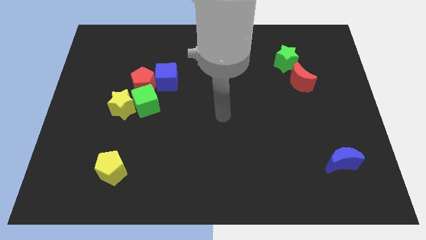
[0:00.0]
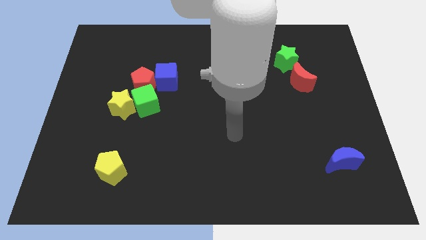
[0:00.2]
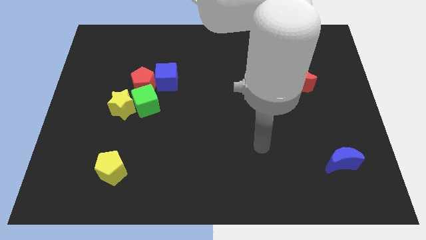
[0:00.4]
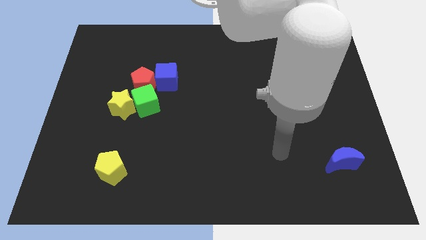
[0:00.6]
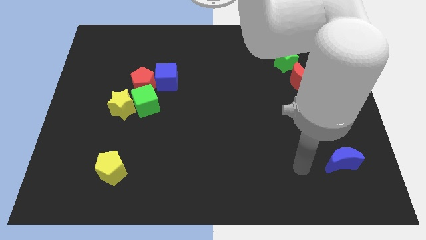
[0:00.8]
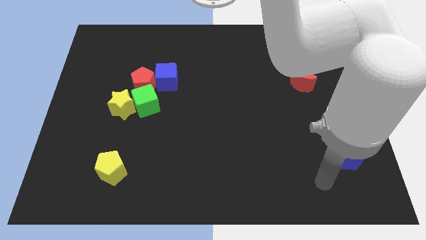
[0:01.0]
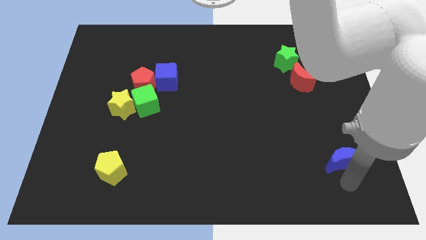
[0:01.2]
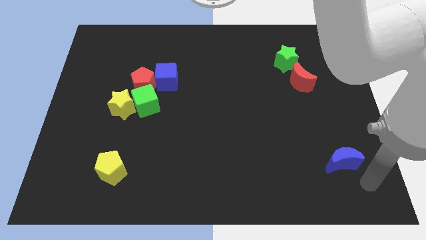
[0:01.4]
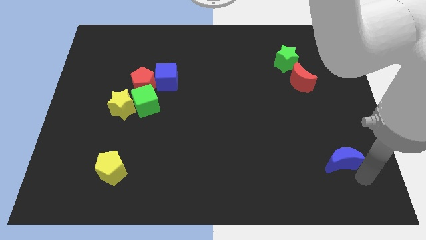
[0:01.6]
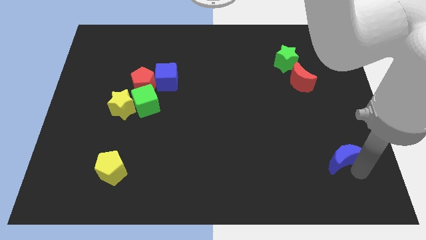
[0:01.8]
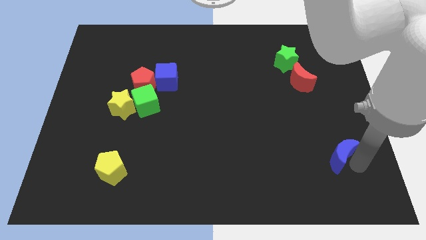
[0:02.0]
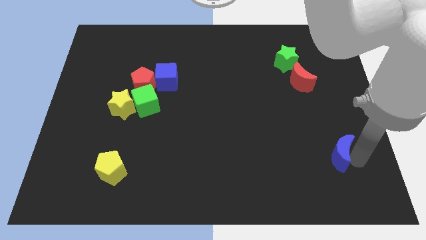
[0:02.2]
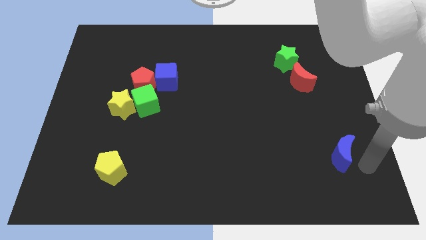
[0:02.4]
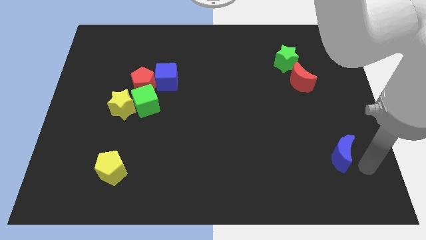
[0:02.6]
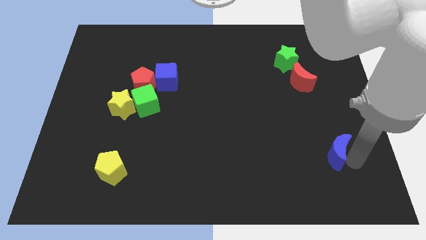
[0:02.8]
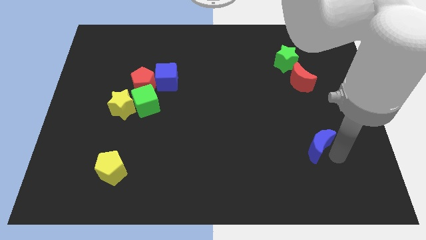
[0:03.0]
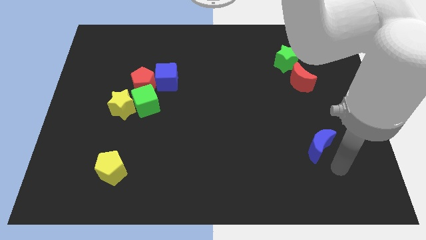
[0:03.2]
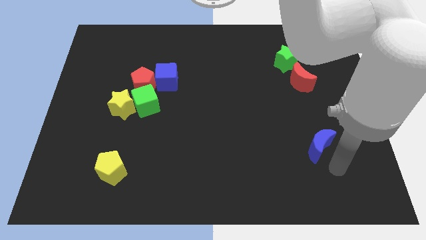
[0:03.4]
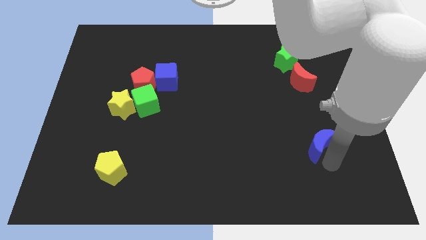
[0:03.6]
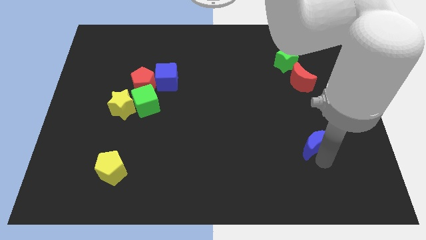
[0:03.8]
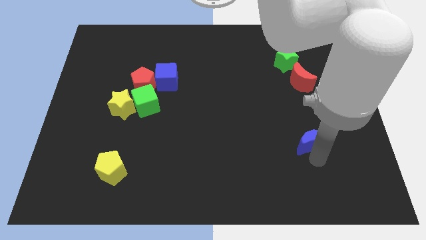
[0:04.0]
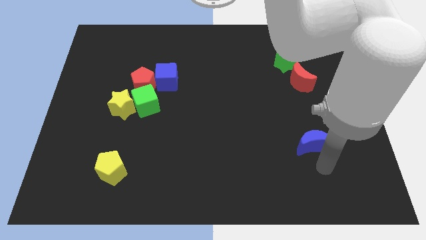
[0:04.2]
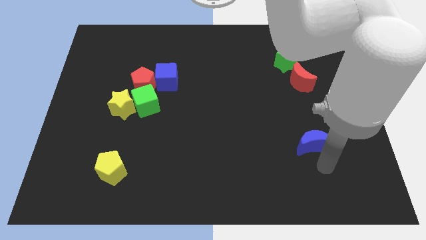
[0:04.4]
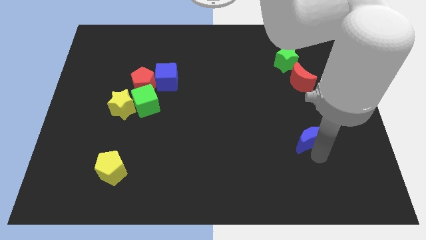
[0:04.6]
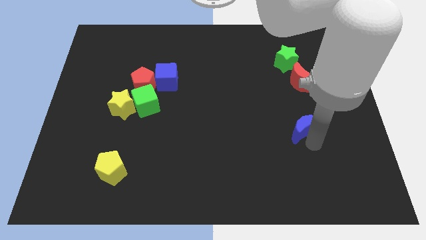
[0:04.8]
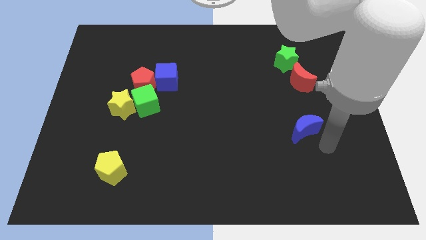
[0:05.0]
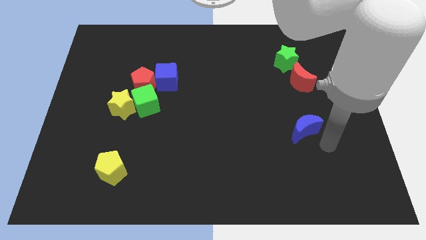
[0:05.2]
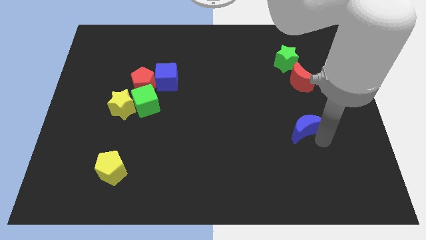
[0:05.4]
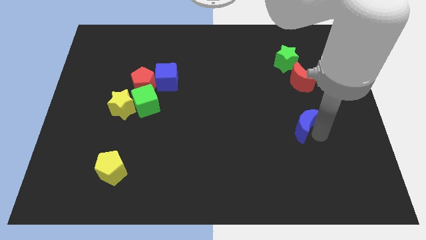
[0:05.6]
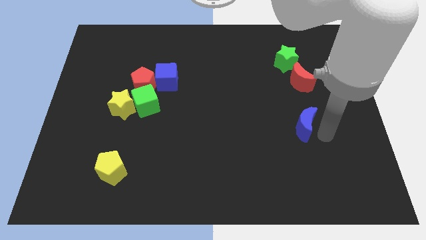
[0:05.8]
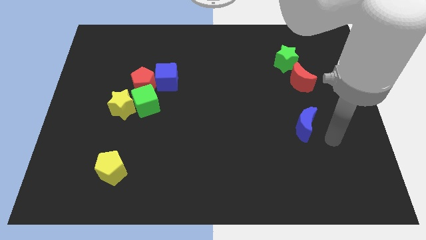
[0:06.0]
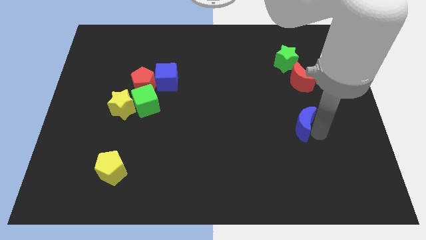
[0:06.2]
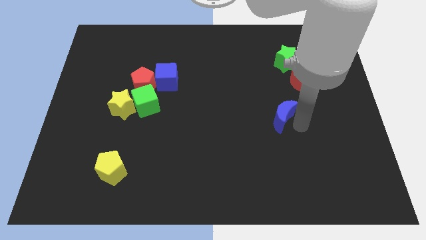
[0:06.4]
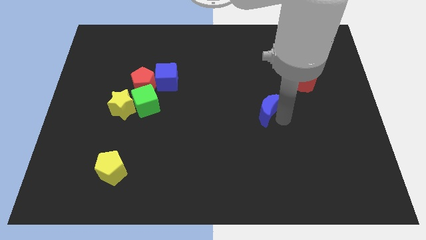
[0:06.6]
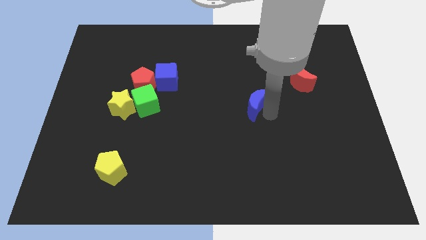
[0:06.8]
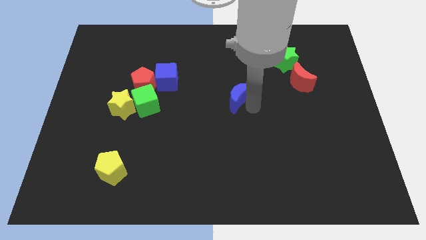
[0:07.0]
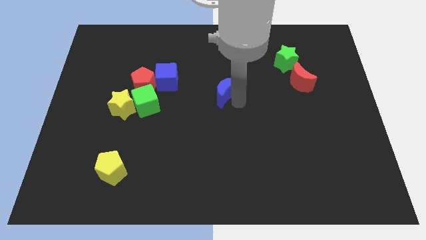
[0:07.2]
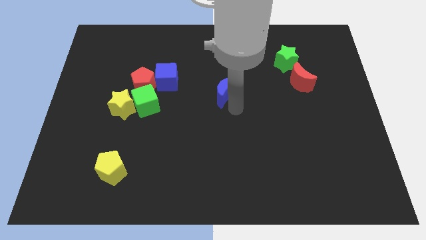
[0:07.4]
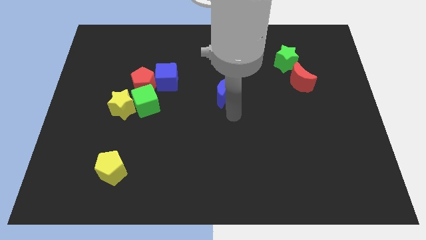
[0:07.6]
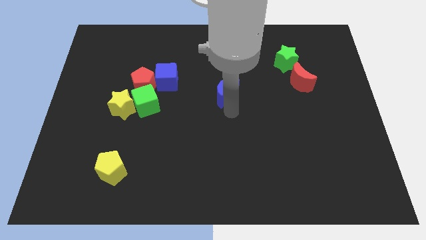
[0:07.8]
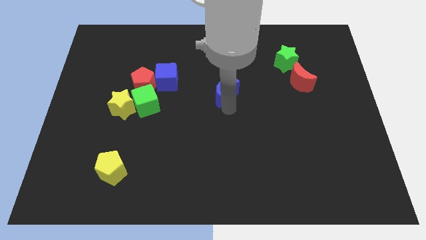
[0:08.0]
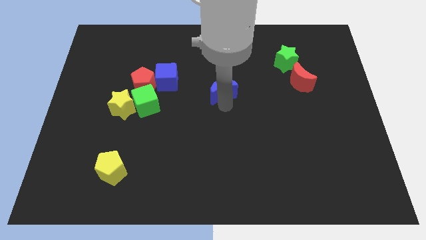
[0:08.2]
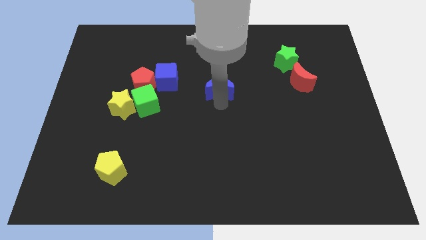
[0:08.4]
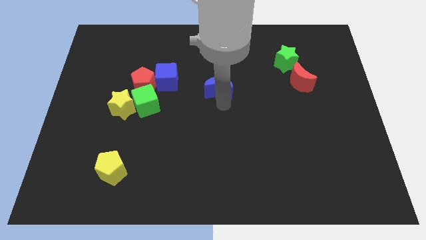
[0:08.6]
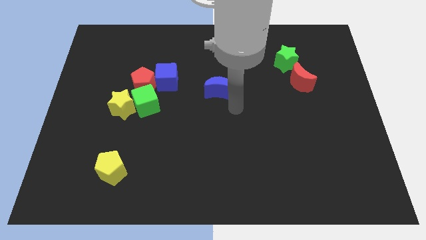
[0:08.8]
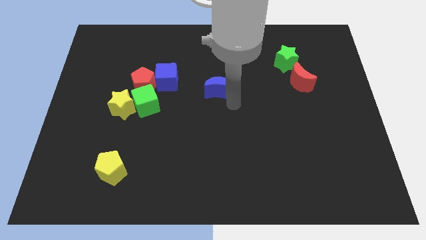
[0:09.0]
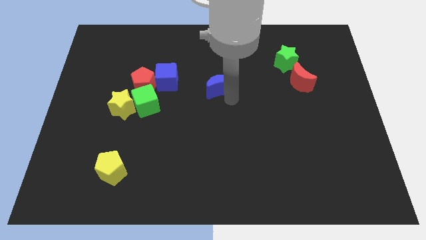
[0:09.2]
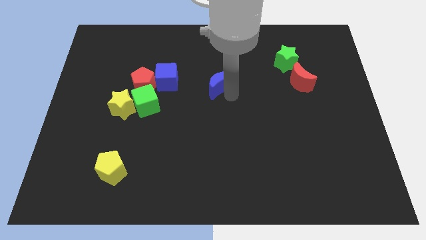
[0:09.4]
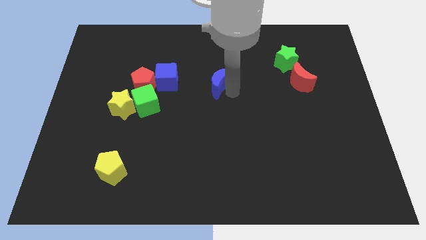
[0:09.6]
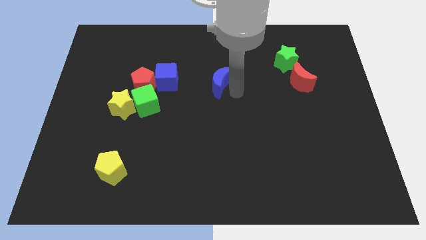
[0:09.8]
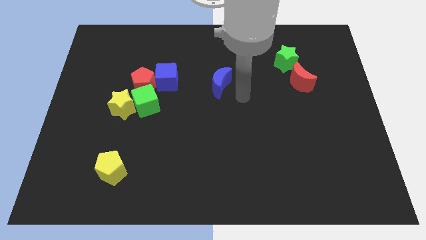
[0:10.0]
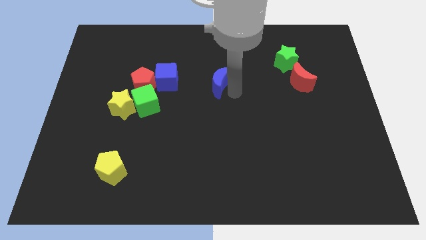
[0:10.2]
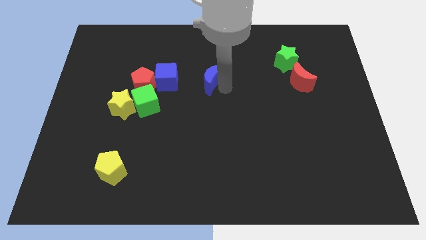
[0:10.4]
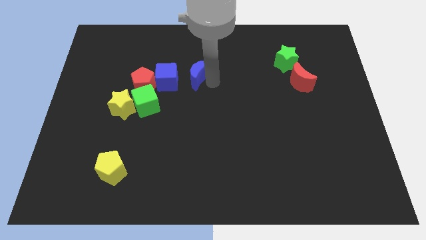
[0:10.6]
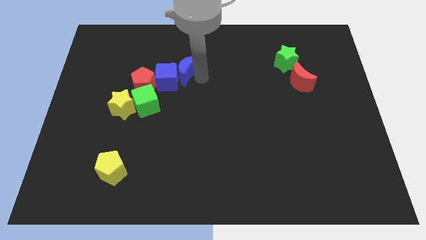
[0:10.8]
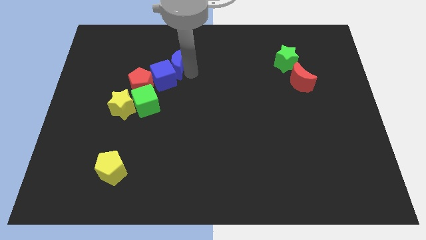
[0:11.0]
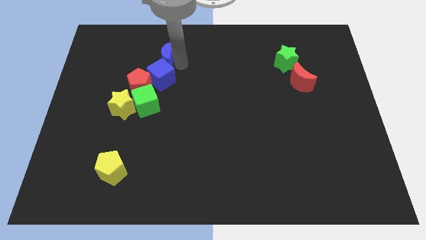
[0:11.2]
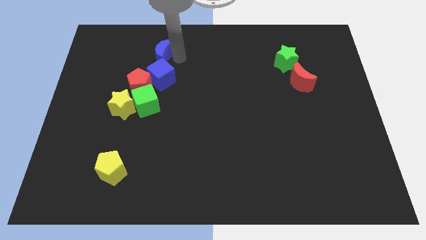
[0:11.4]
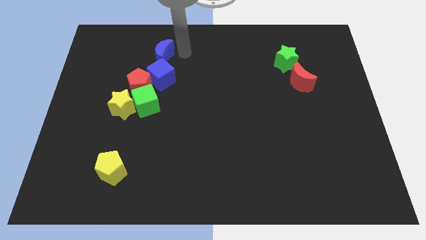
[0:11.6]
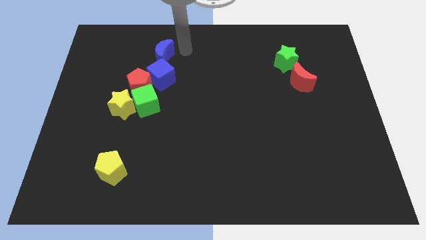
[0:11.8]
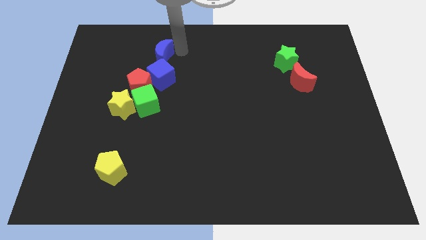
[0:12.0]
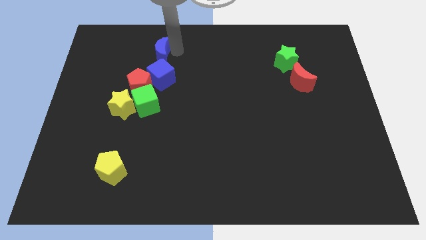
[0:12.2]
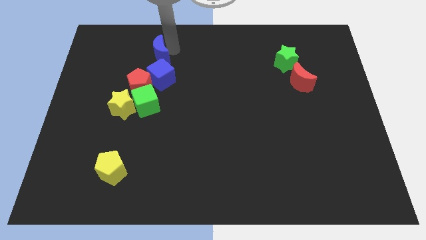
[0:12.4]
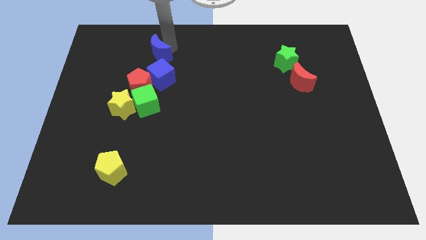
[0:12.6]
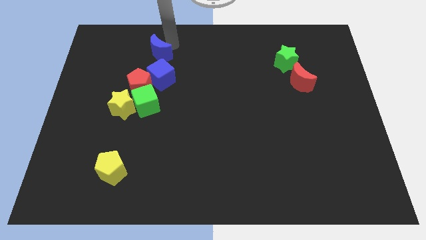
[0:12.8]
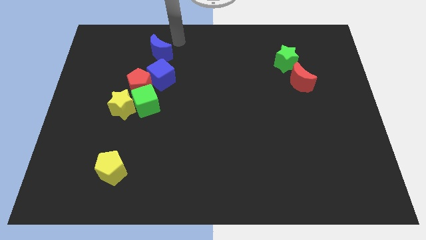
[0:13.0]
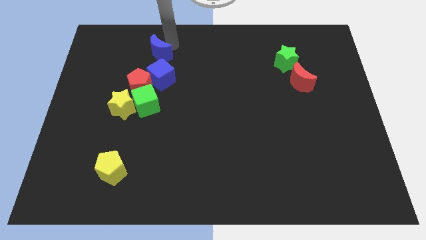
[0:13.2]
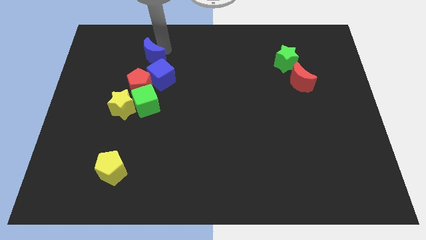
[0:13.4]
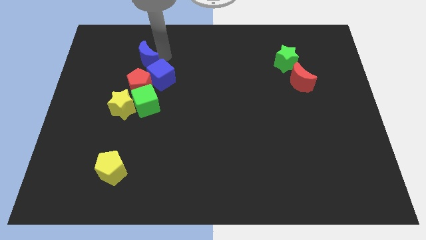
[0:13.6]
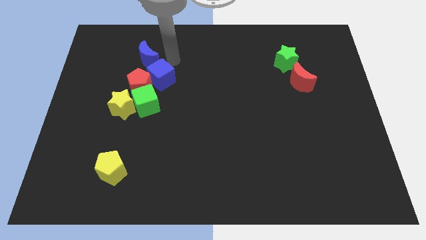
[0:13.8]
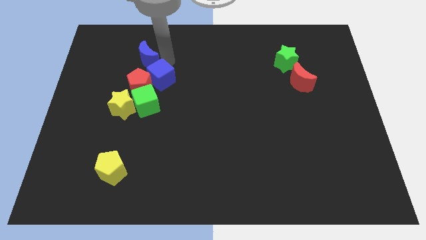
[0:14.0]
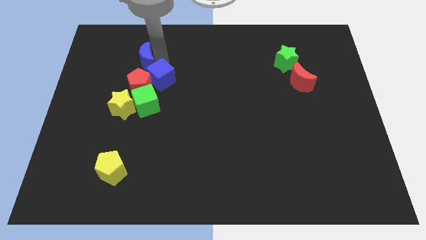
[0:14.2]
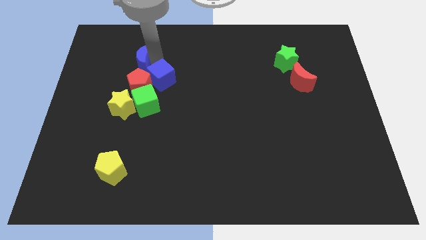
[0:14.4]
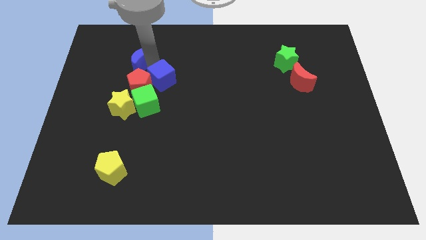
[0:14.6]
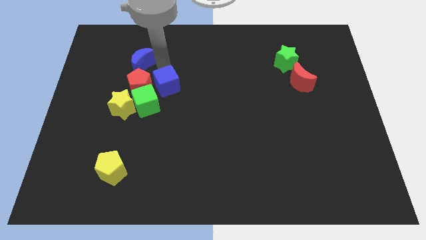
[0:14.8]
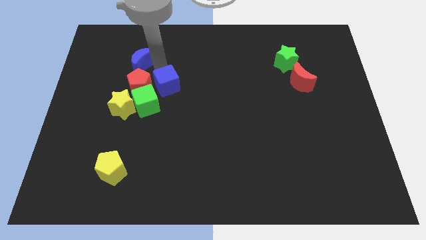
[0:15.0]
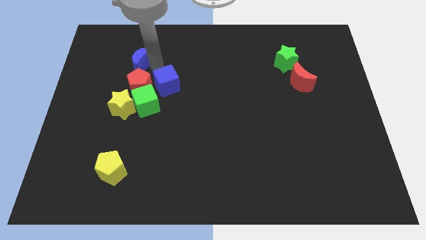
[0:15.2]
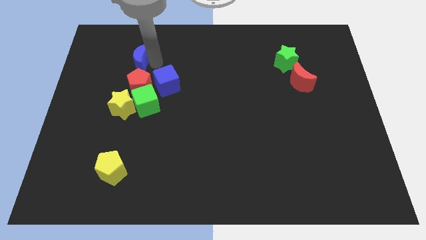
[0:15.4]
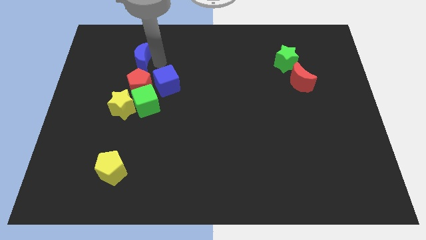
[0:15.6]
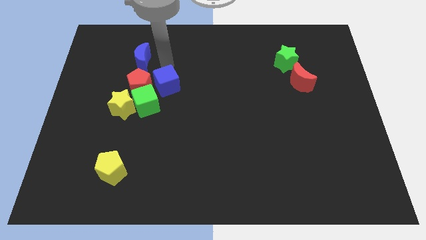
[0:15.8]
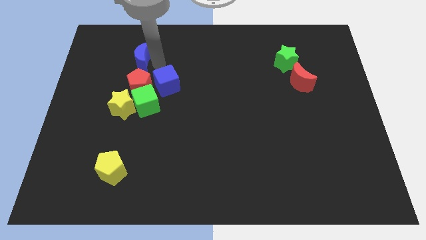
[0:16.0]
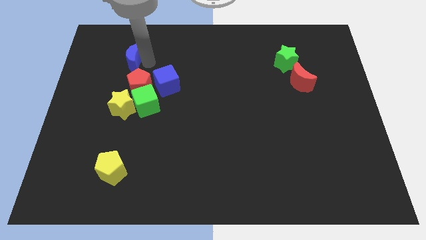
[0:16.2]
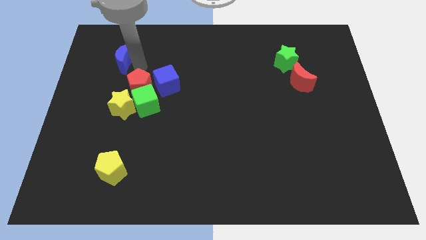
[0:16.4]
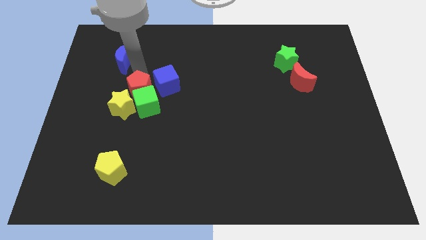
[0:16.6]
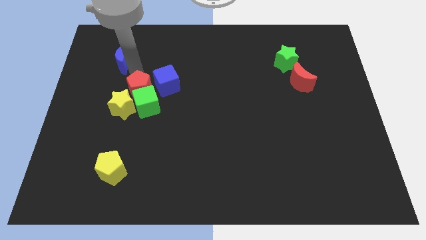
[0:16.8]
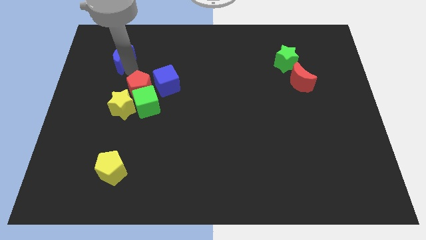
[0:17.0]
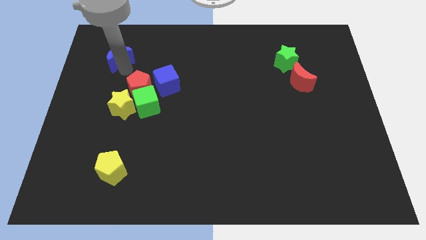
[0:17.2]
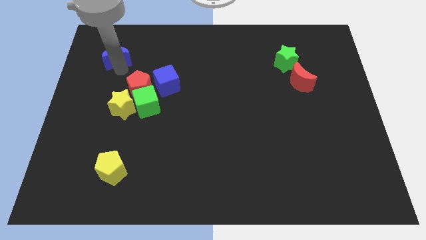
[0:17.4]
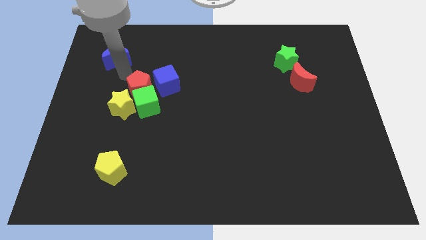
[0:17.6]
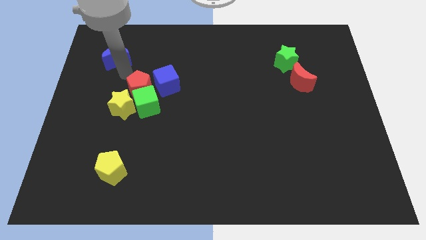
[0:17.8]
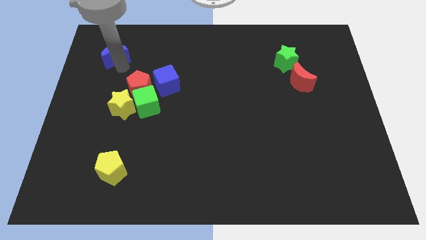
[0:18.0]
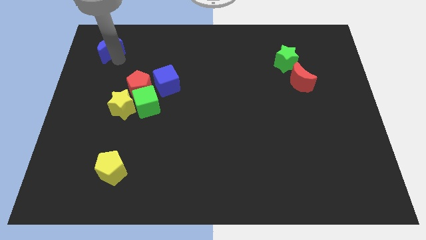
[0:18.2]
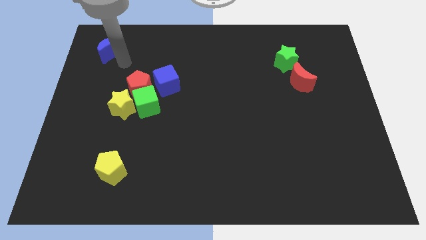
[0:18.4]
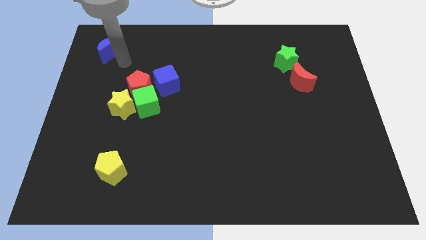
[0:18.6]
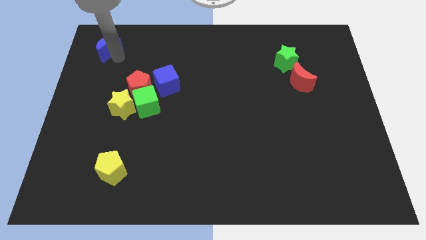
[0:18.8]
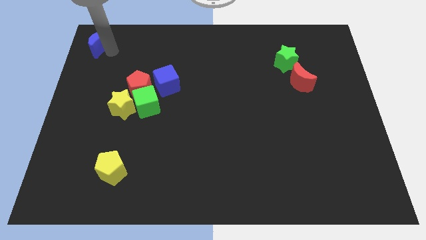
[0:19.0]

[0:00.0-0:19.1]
move the blue moon to the top left
